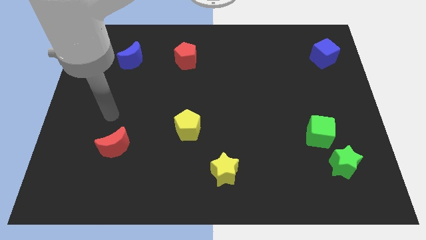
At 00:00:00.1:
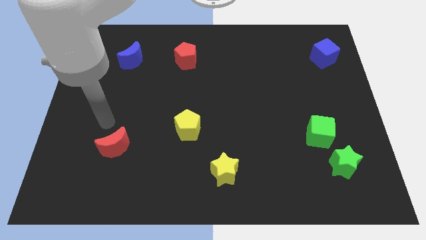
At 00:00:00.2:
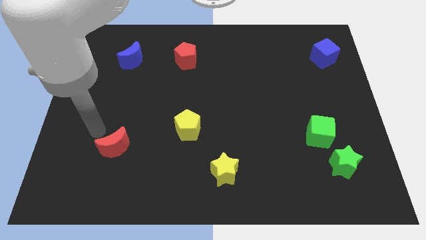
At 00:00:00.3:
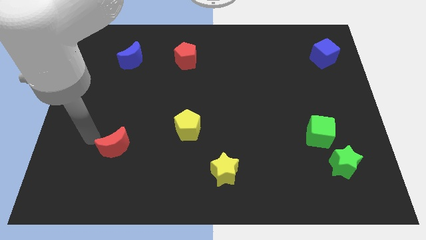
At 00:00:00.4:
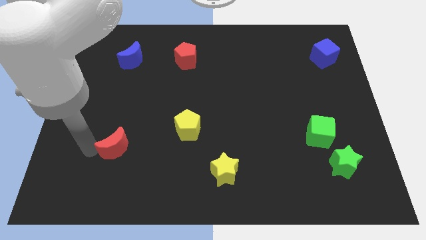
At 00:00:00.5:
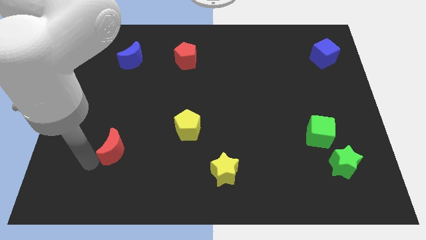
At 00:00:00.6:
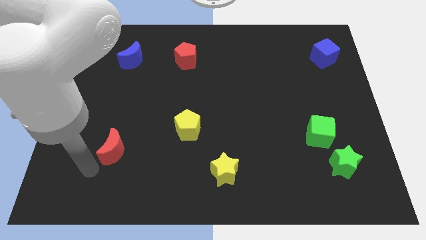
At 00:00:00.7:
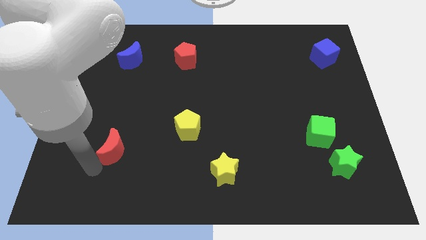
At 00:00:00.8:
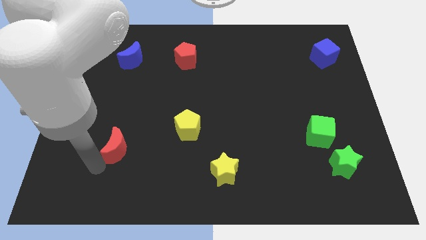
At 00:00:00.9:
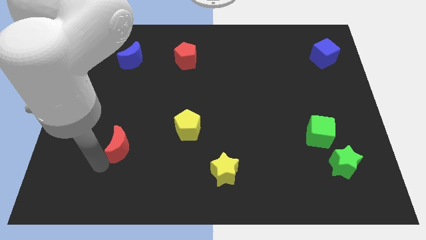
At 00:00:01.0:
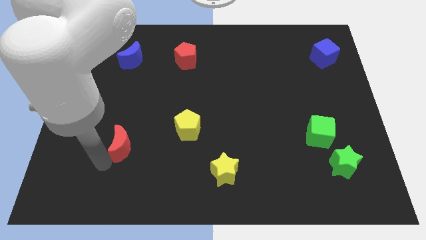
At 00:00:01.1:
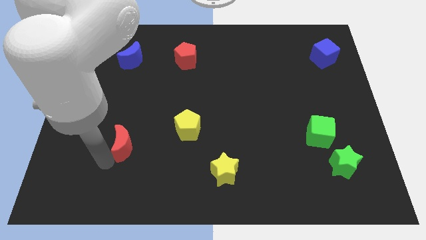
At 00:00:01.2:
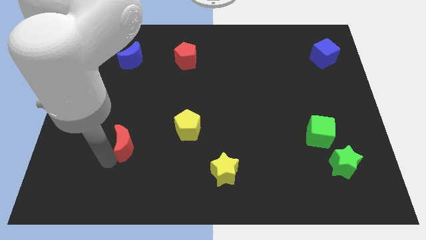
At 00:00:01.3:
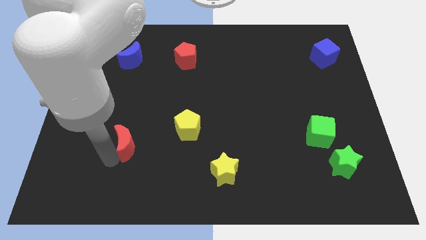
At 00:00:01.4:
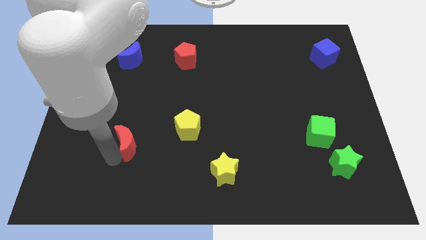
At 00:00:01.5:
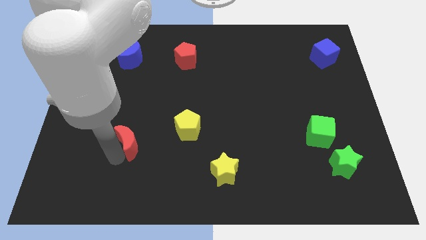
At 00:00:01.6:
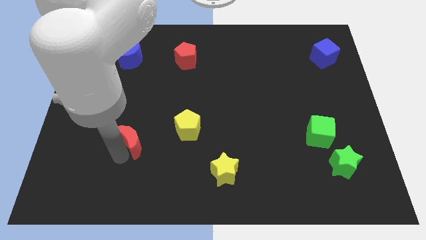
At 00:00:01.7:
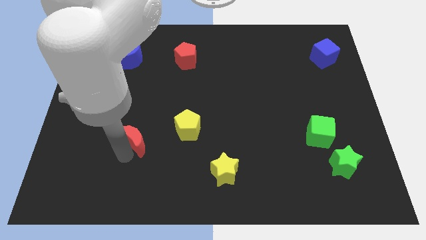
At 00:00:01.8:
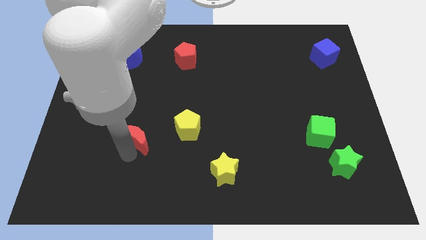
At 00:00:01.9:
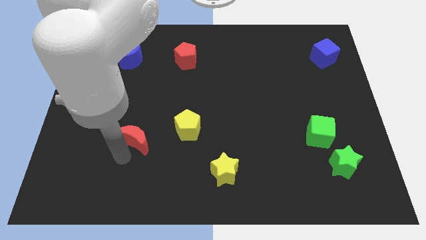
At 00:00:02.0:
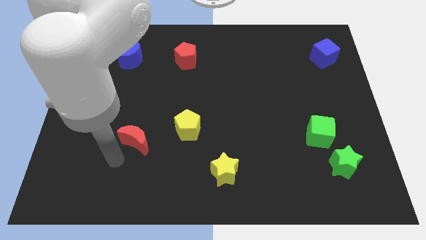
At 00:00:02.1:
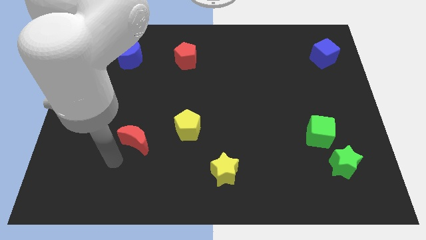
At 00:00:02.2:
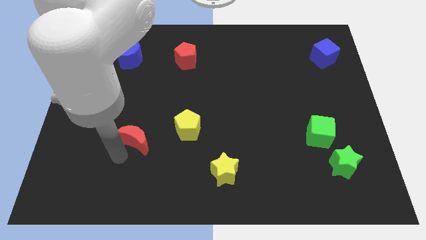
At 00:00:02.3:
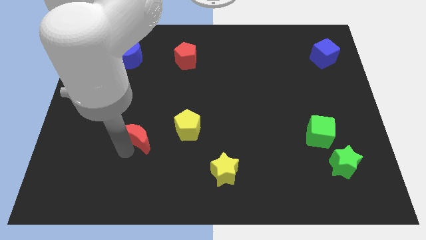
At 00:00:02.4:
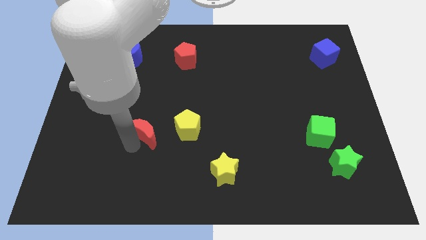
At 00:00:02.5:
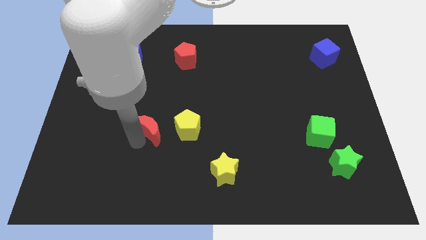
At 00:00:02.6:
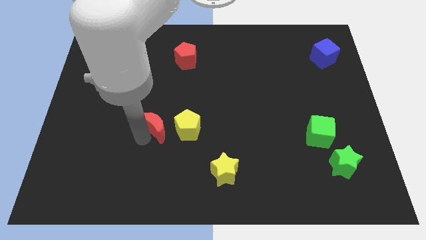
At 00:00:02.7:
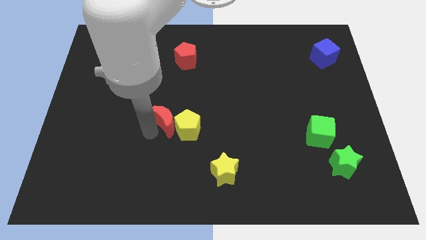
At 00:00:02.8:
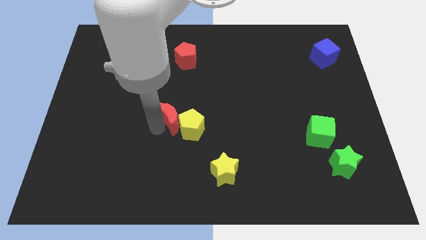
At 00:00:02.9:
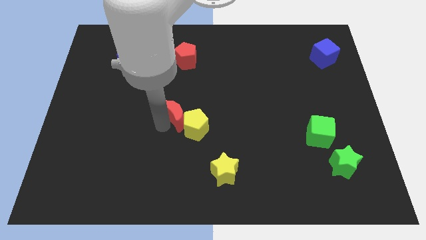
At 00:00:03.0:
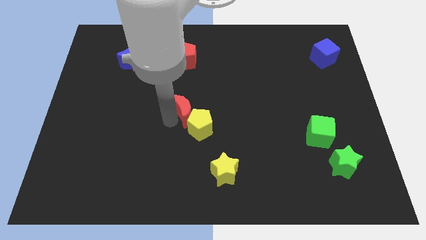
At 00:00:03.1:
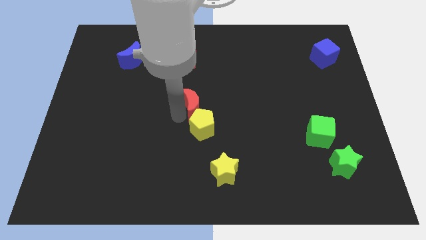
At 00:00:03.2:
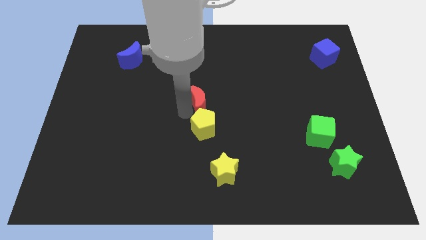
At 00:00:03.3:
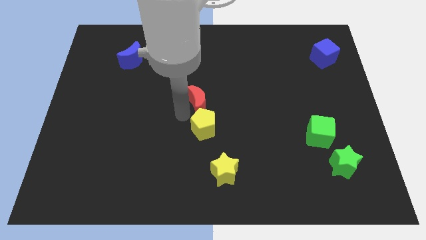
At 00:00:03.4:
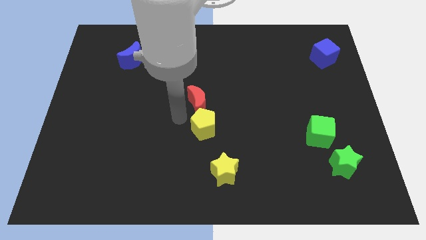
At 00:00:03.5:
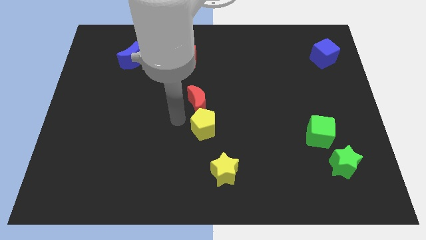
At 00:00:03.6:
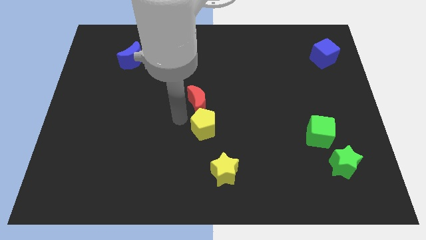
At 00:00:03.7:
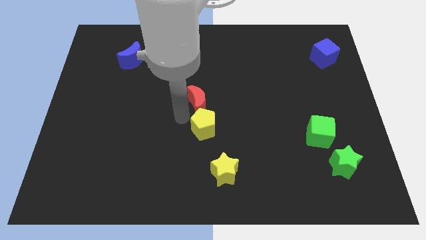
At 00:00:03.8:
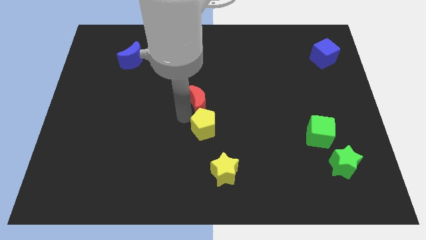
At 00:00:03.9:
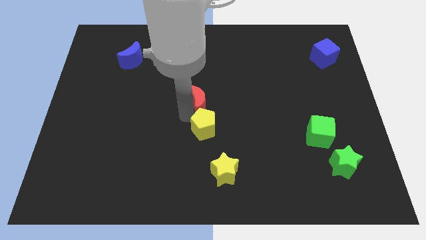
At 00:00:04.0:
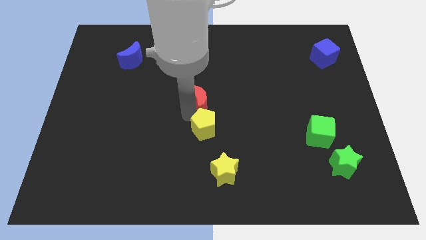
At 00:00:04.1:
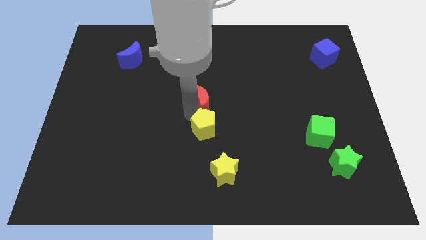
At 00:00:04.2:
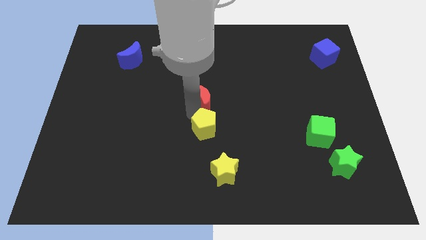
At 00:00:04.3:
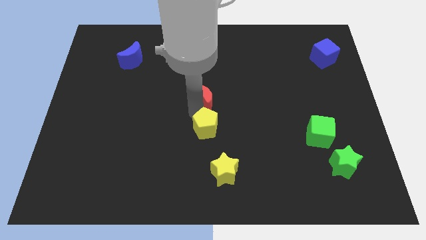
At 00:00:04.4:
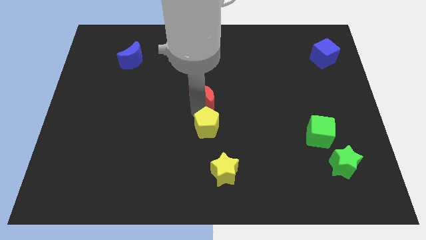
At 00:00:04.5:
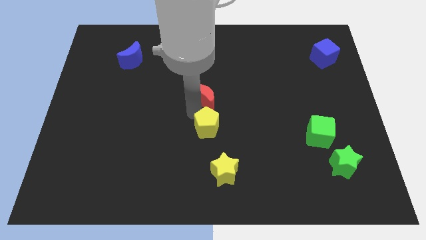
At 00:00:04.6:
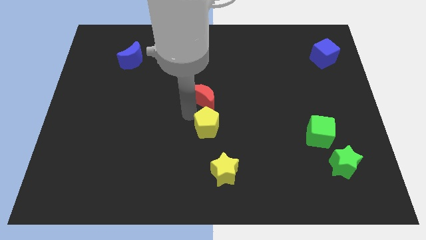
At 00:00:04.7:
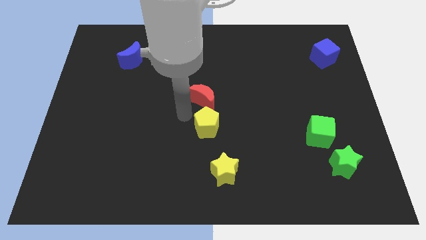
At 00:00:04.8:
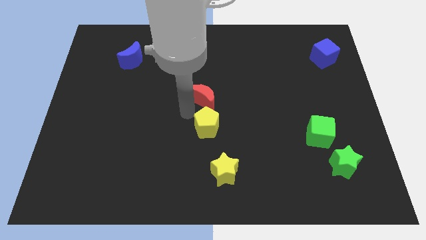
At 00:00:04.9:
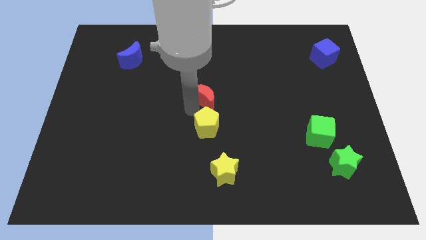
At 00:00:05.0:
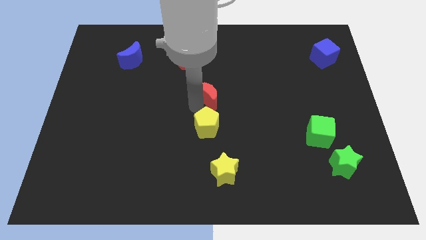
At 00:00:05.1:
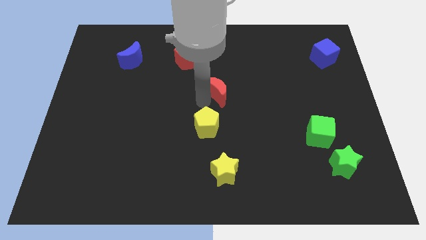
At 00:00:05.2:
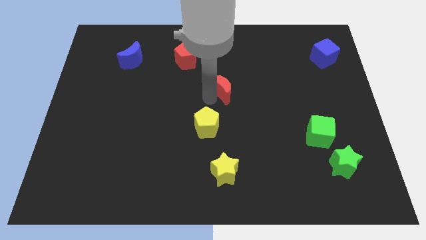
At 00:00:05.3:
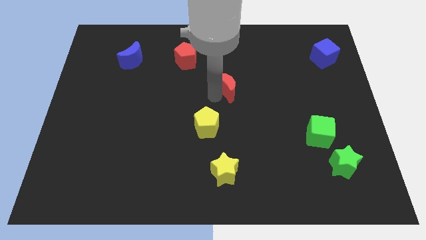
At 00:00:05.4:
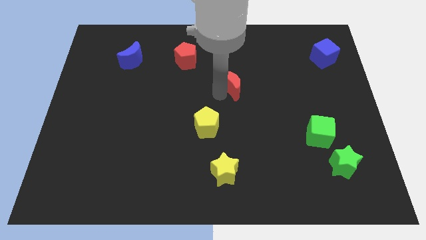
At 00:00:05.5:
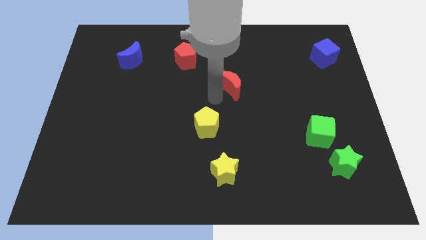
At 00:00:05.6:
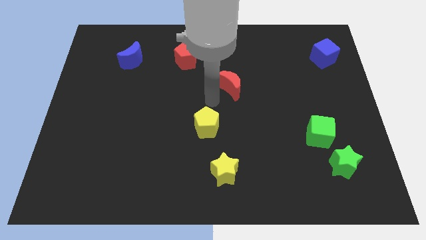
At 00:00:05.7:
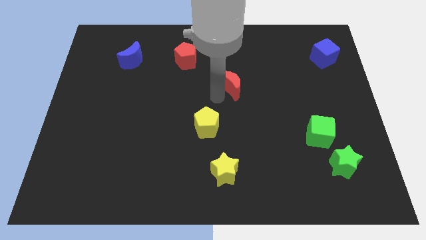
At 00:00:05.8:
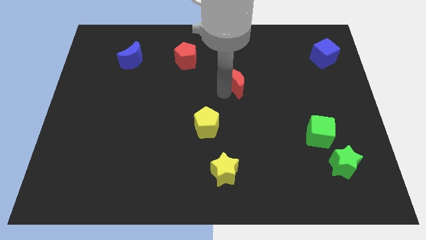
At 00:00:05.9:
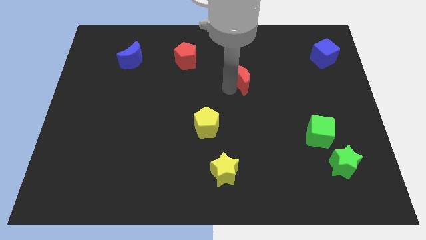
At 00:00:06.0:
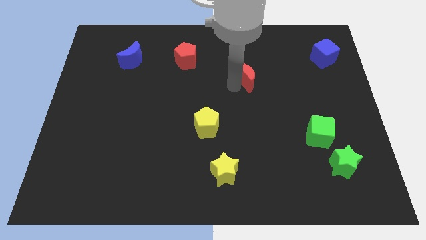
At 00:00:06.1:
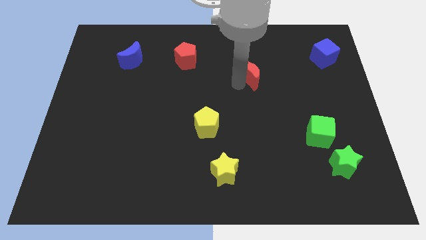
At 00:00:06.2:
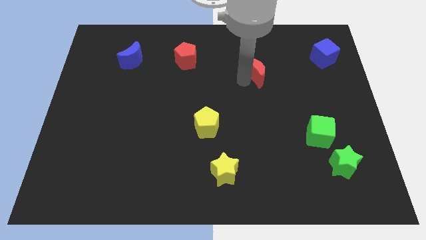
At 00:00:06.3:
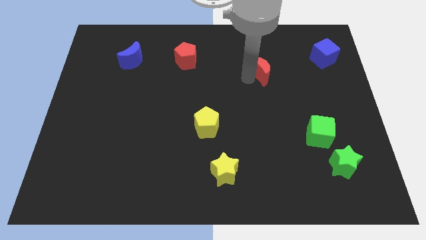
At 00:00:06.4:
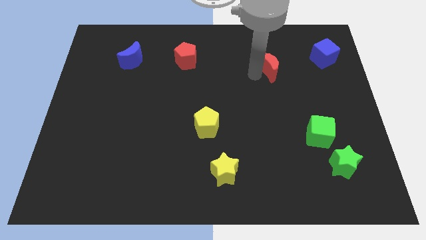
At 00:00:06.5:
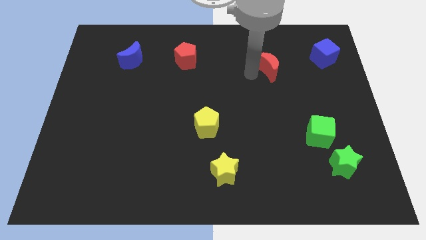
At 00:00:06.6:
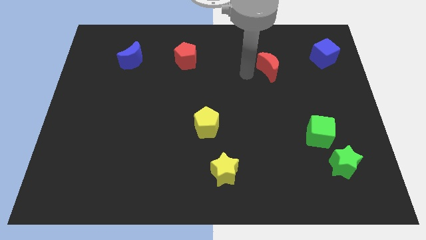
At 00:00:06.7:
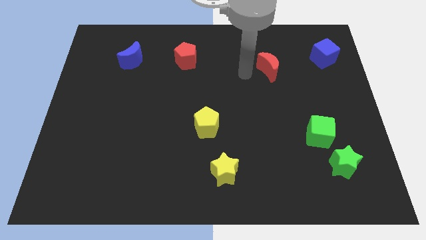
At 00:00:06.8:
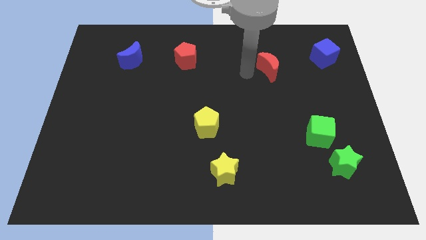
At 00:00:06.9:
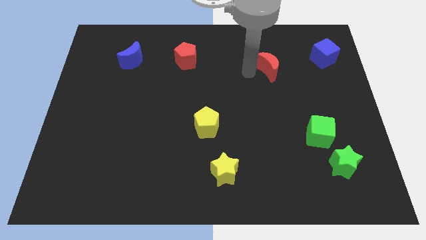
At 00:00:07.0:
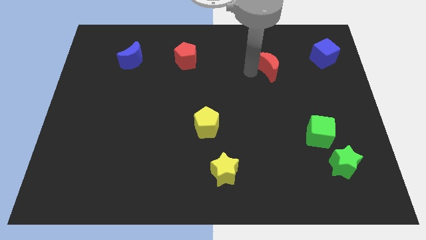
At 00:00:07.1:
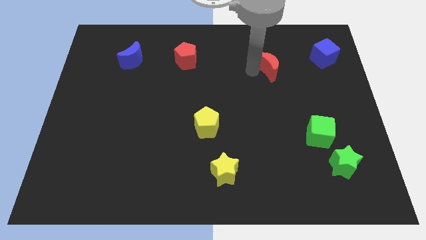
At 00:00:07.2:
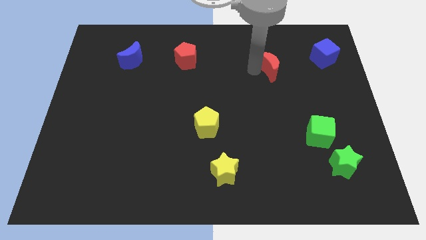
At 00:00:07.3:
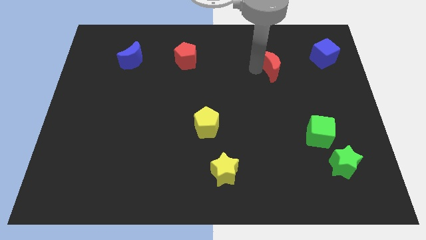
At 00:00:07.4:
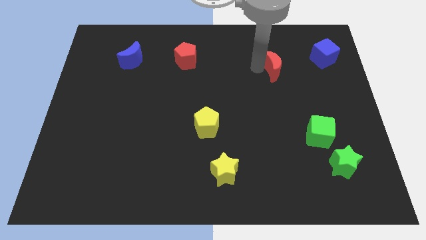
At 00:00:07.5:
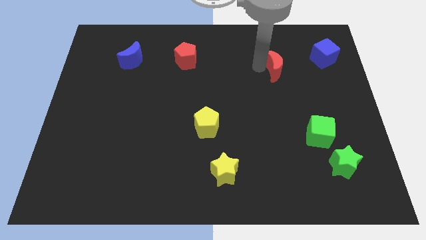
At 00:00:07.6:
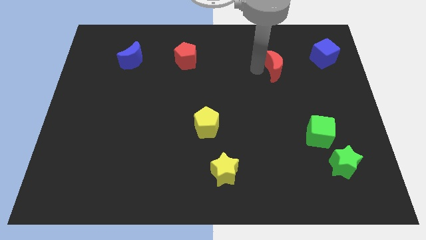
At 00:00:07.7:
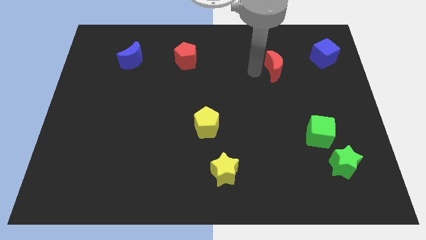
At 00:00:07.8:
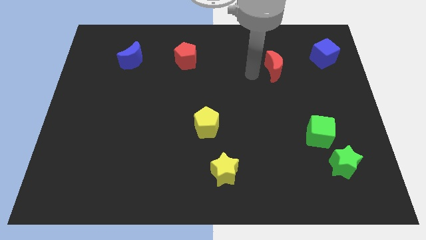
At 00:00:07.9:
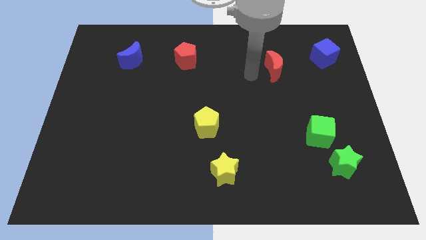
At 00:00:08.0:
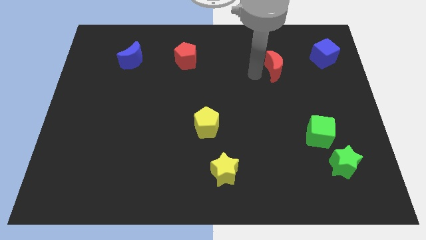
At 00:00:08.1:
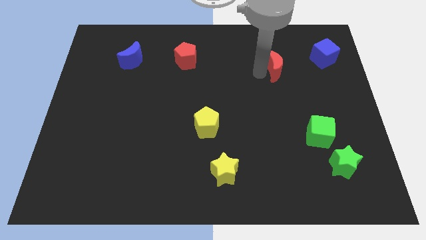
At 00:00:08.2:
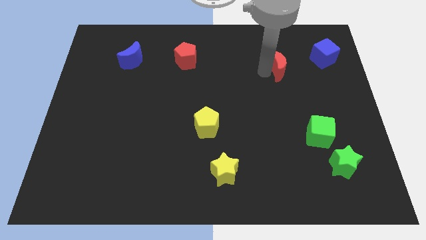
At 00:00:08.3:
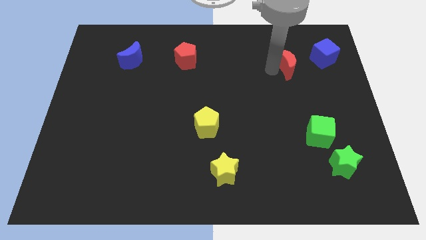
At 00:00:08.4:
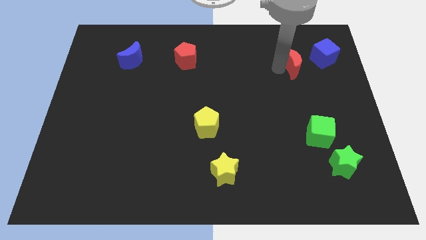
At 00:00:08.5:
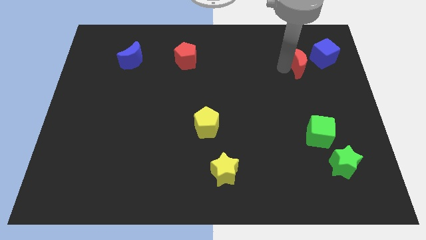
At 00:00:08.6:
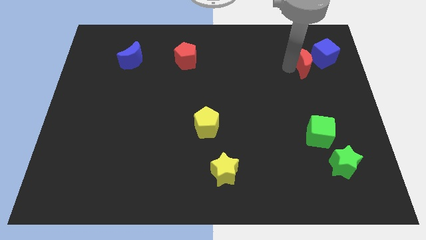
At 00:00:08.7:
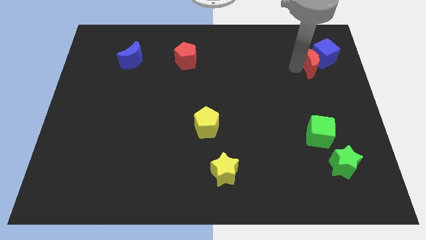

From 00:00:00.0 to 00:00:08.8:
push the red moon close to the blue cube
